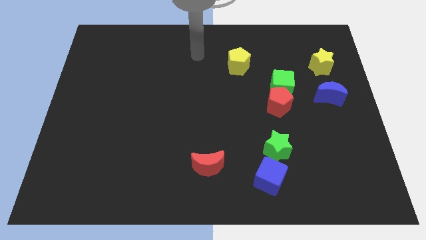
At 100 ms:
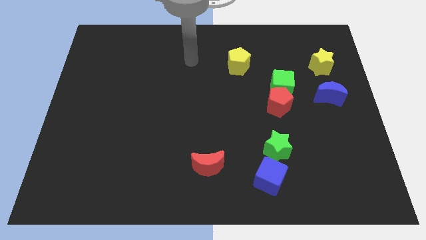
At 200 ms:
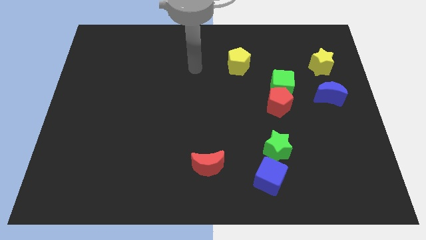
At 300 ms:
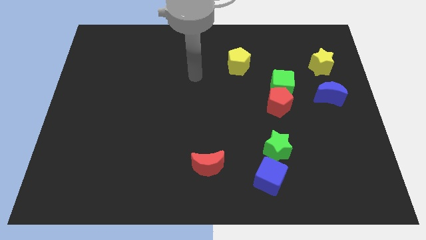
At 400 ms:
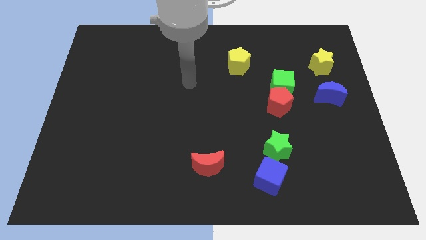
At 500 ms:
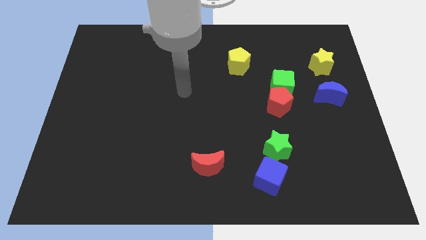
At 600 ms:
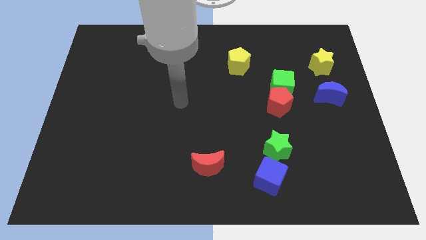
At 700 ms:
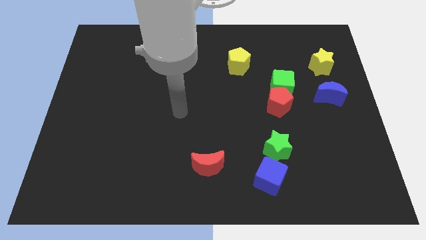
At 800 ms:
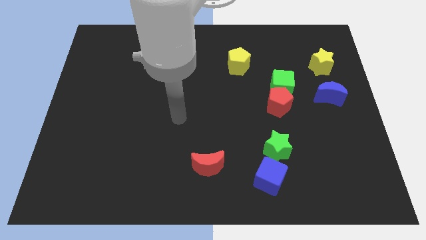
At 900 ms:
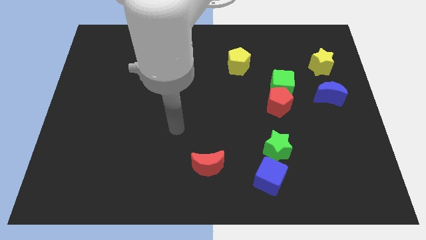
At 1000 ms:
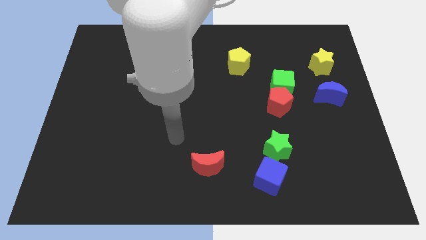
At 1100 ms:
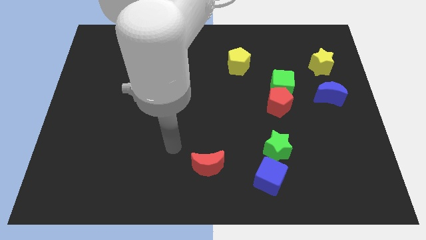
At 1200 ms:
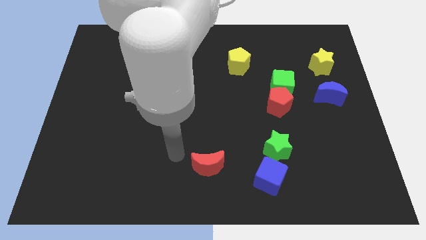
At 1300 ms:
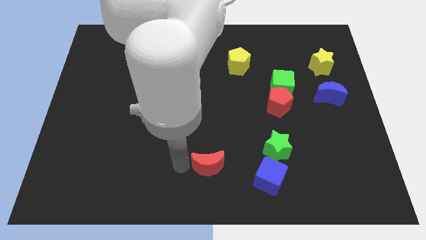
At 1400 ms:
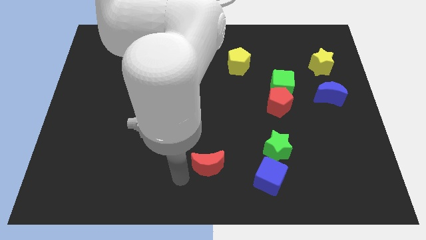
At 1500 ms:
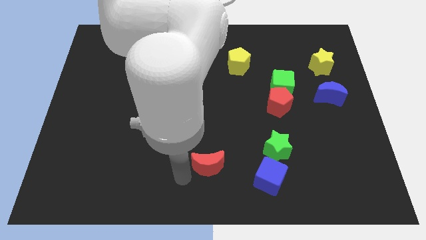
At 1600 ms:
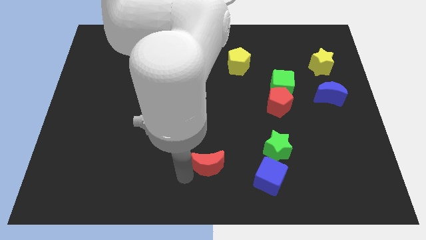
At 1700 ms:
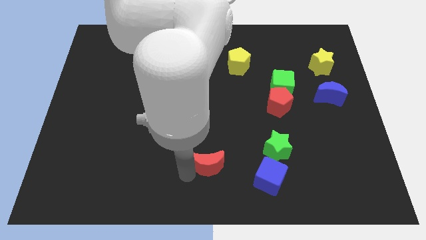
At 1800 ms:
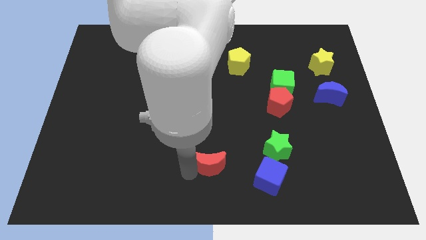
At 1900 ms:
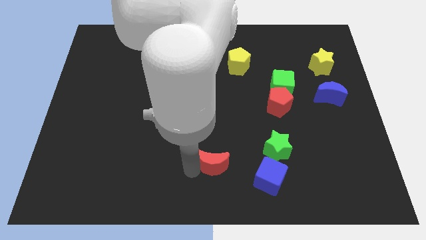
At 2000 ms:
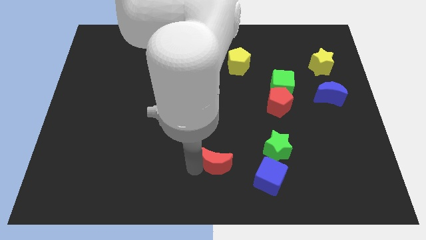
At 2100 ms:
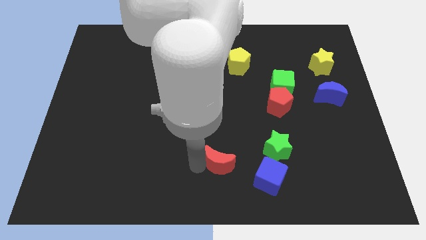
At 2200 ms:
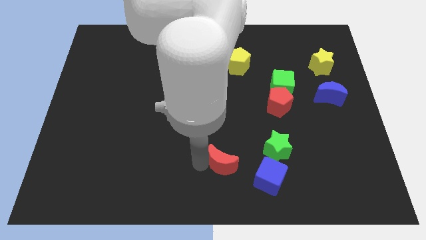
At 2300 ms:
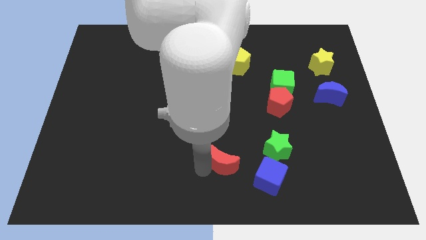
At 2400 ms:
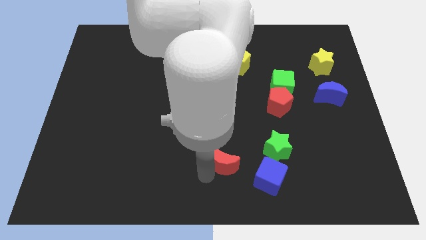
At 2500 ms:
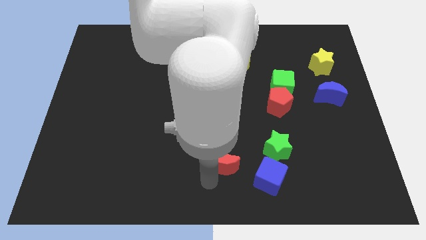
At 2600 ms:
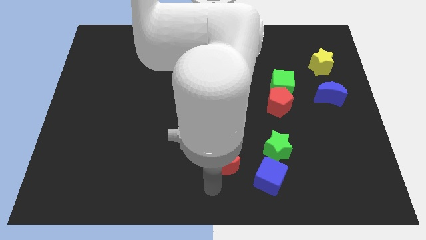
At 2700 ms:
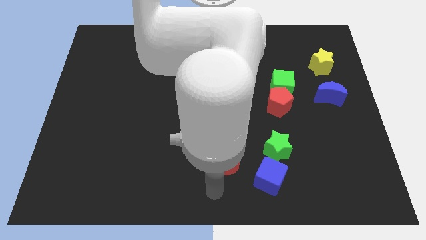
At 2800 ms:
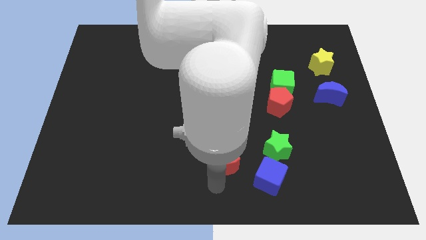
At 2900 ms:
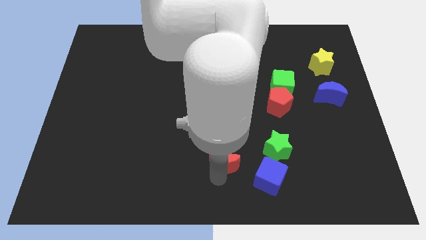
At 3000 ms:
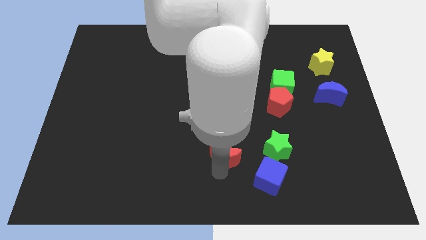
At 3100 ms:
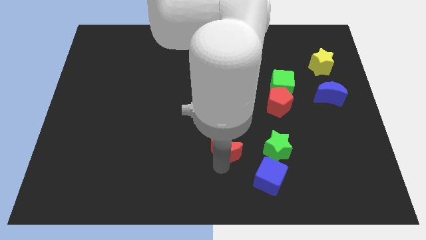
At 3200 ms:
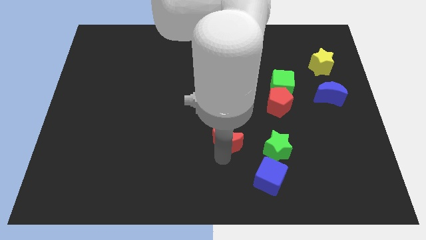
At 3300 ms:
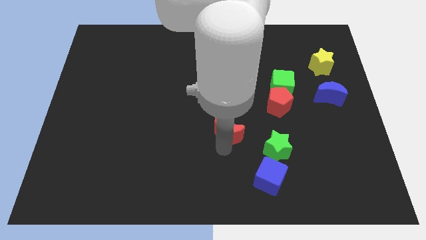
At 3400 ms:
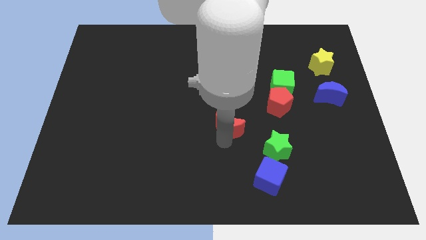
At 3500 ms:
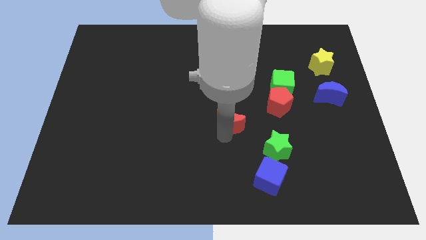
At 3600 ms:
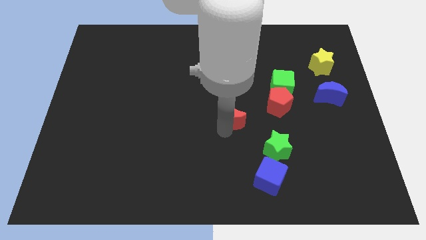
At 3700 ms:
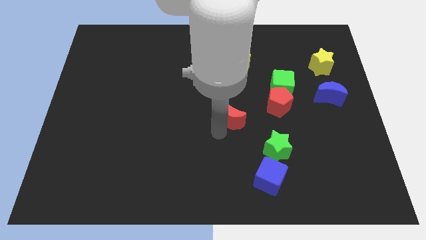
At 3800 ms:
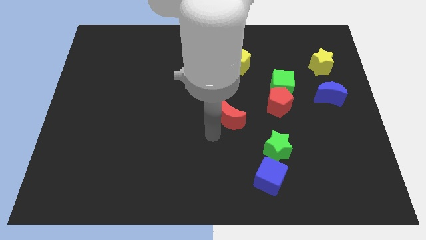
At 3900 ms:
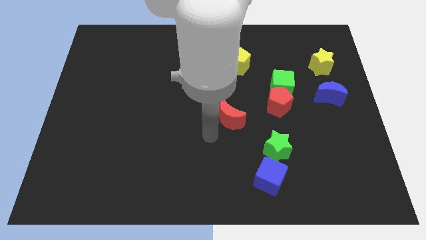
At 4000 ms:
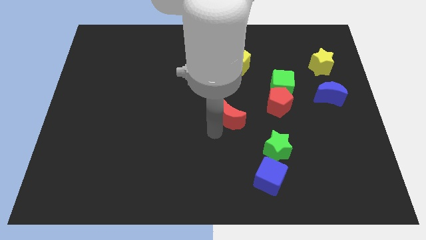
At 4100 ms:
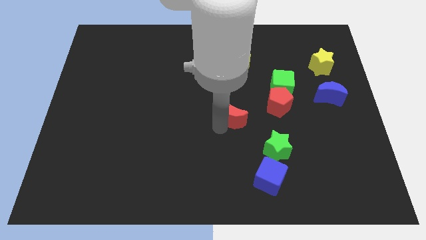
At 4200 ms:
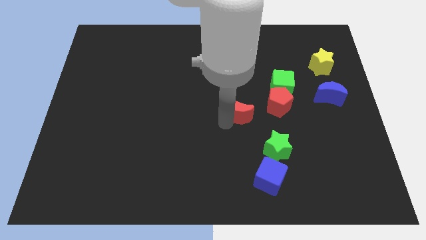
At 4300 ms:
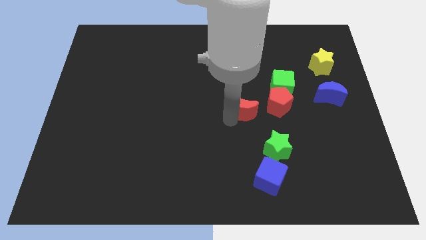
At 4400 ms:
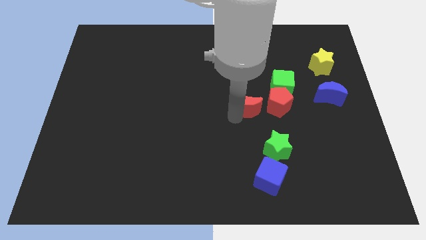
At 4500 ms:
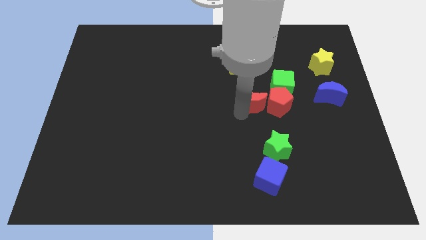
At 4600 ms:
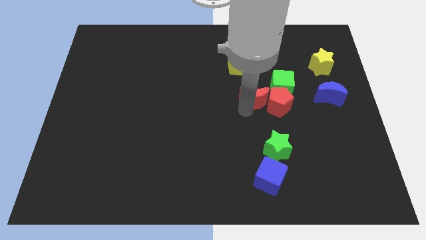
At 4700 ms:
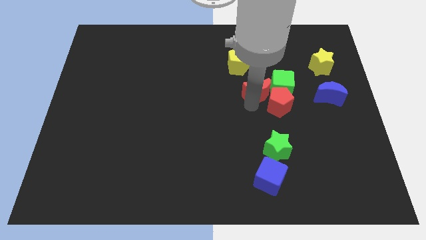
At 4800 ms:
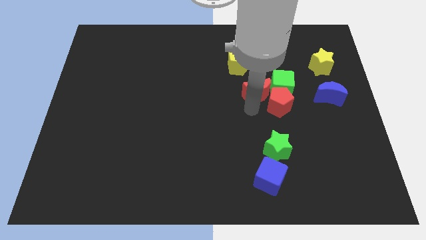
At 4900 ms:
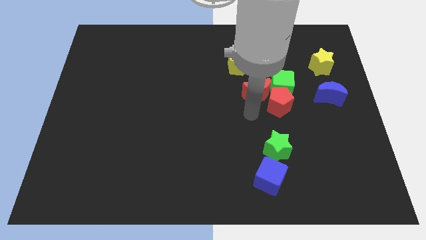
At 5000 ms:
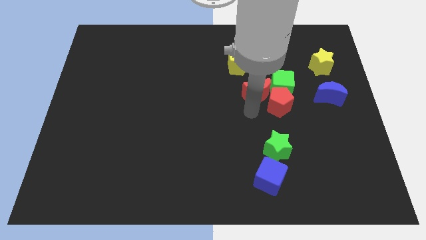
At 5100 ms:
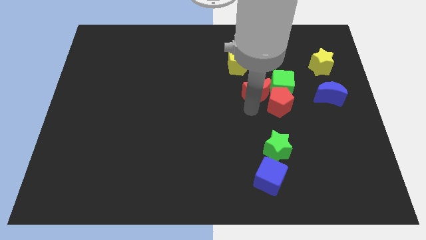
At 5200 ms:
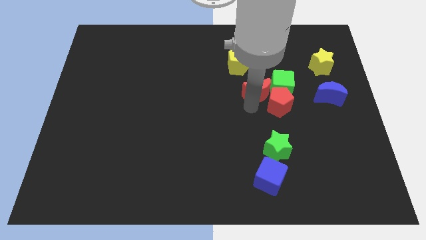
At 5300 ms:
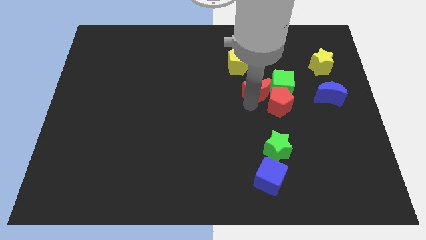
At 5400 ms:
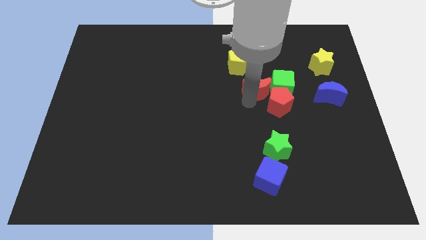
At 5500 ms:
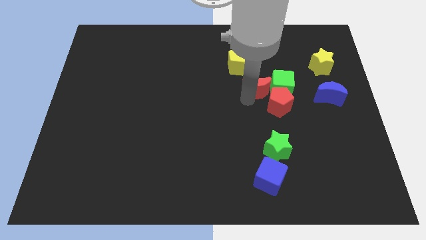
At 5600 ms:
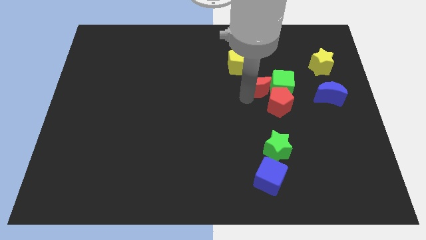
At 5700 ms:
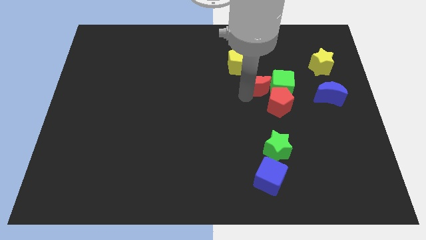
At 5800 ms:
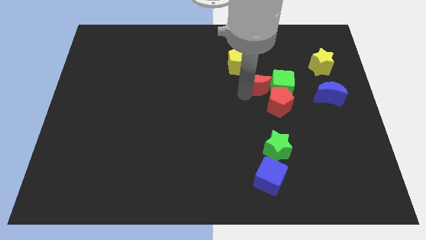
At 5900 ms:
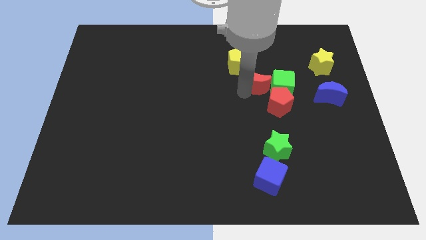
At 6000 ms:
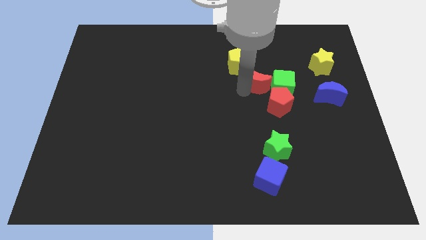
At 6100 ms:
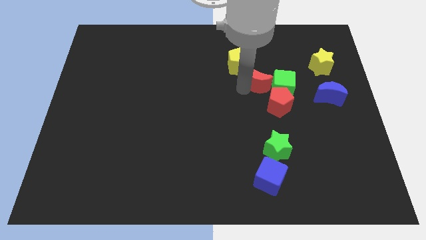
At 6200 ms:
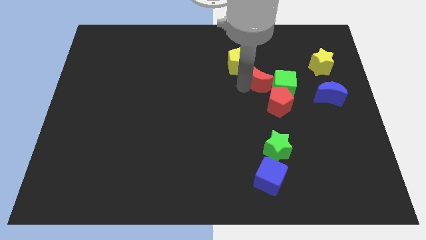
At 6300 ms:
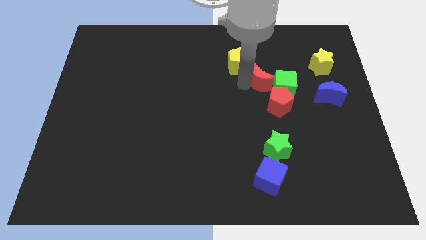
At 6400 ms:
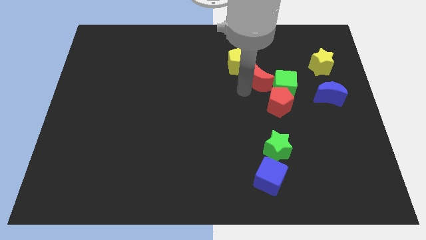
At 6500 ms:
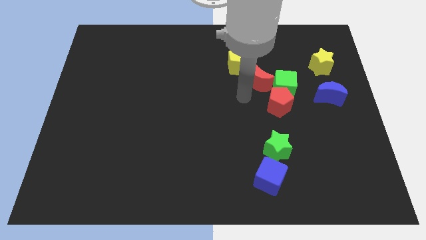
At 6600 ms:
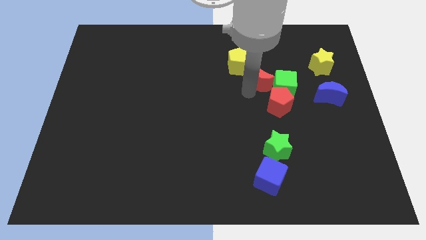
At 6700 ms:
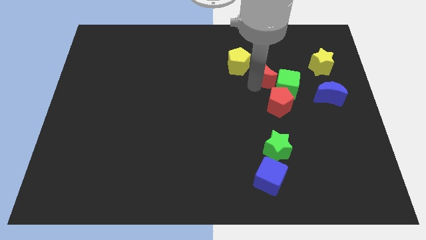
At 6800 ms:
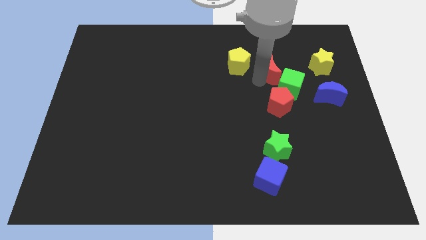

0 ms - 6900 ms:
put the red moon to the top of the green cube
